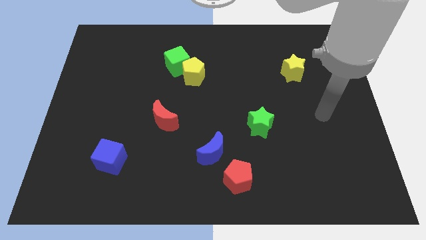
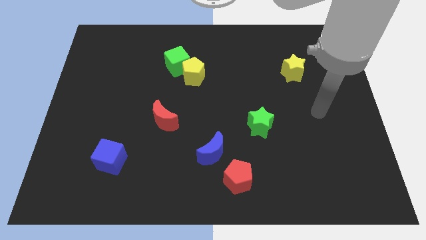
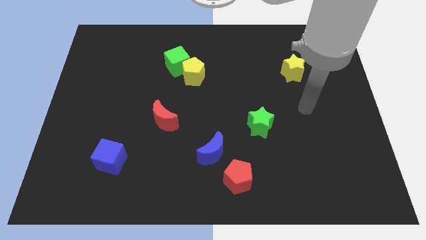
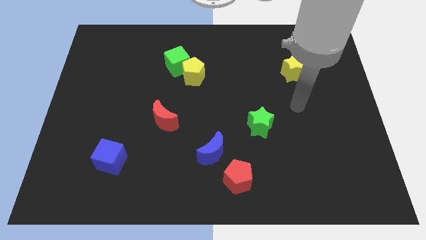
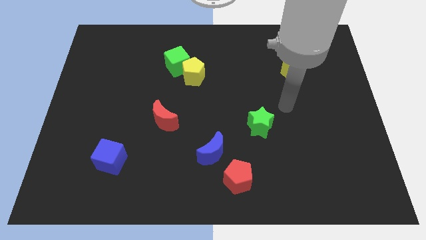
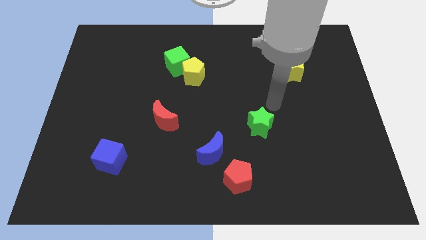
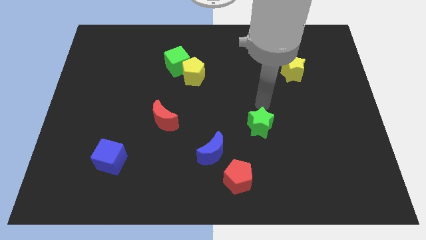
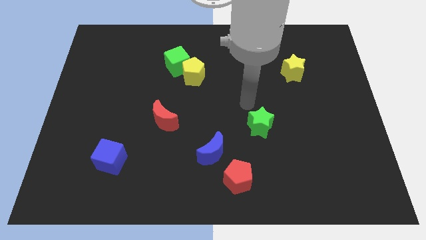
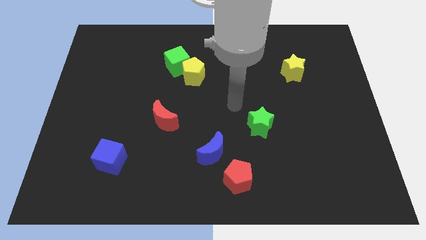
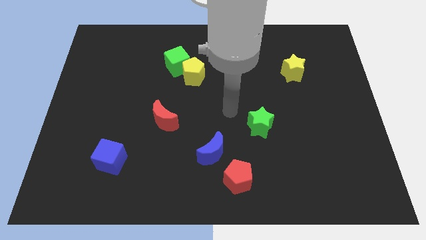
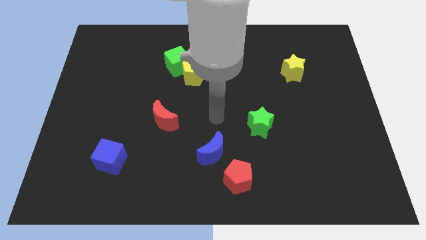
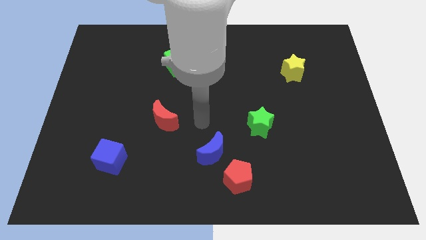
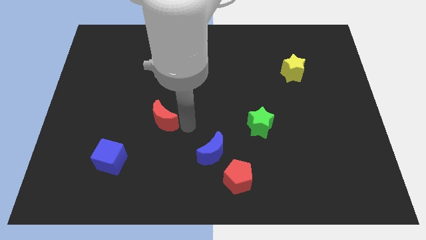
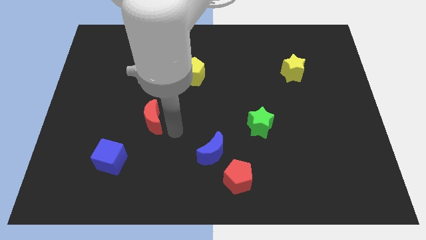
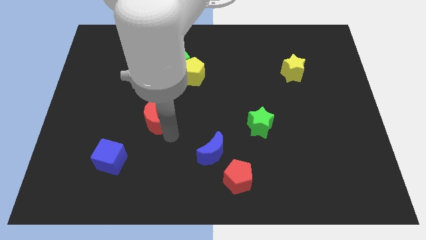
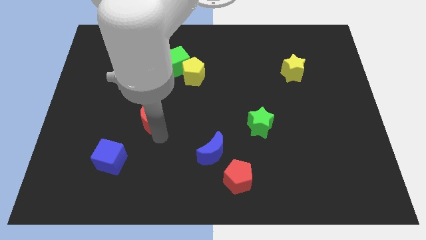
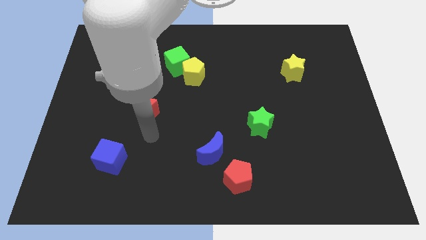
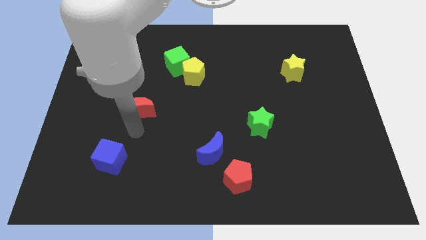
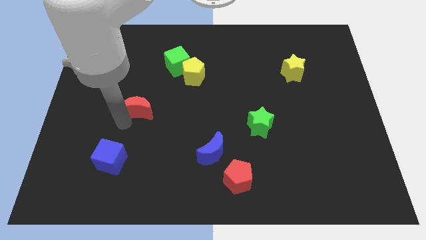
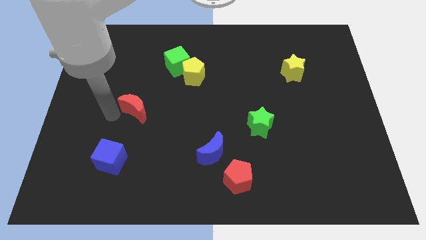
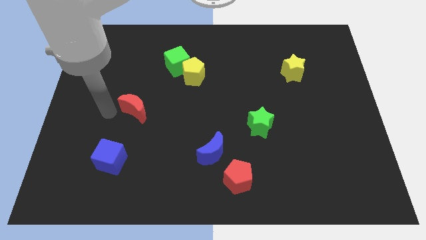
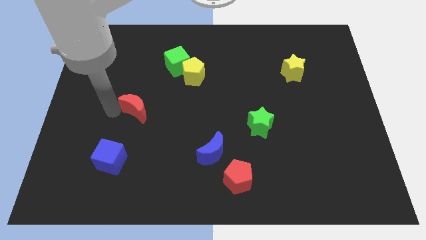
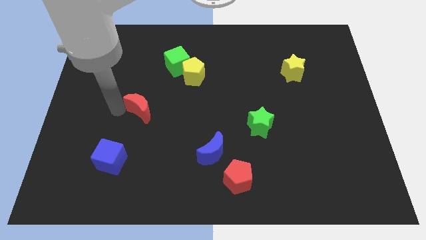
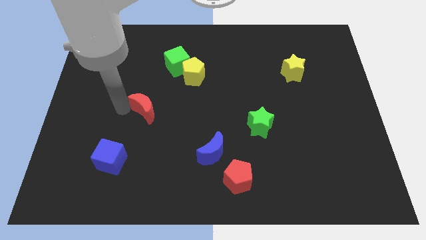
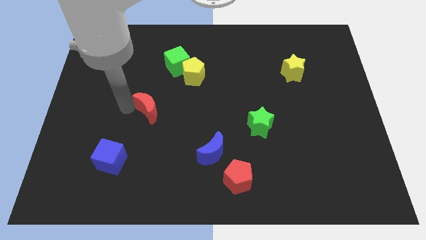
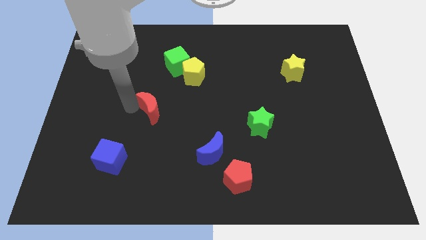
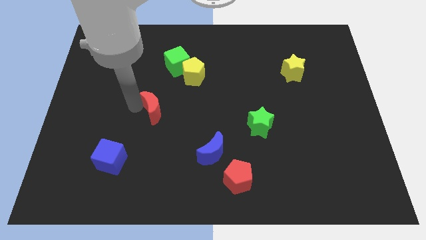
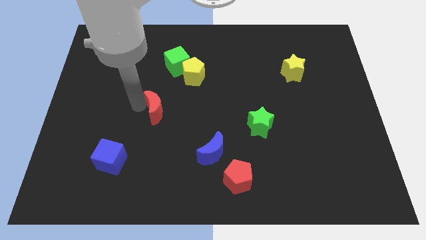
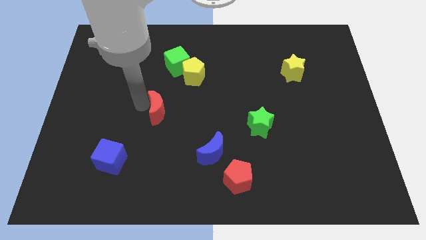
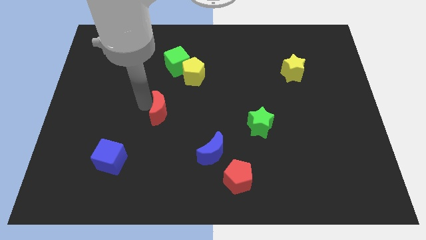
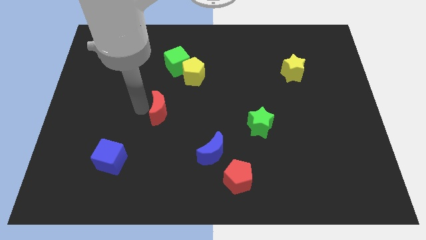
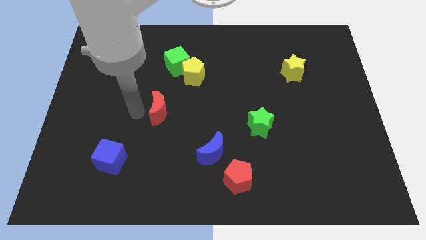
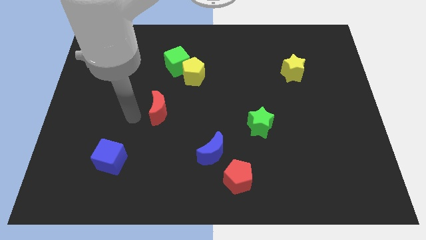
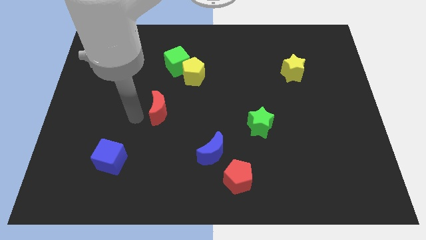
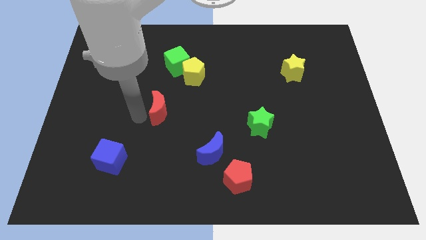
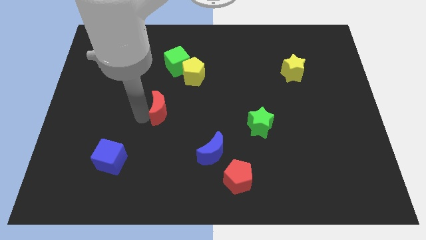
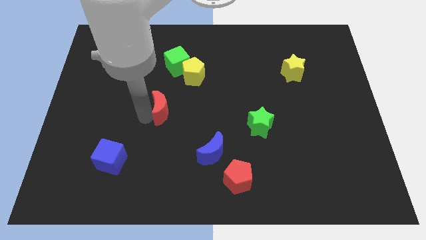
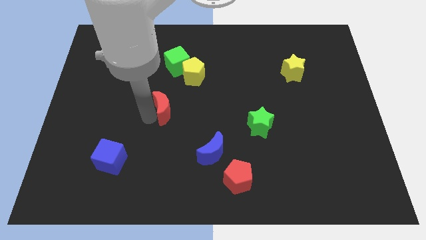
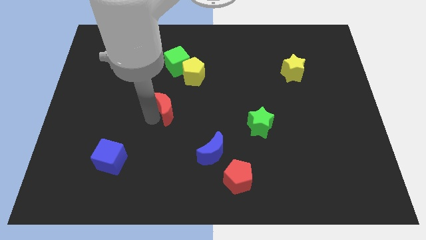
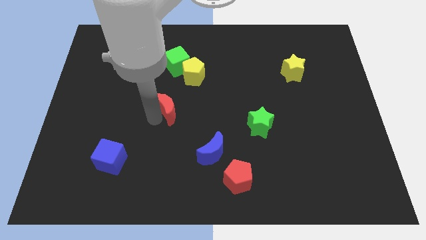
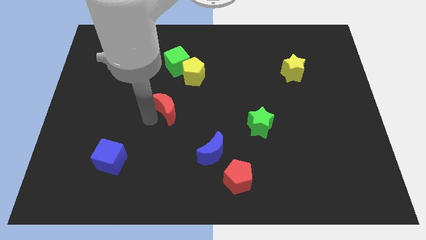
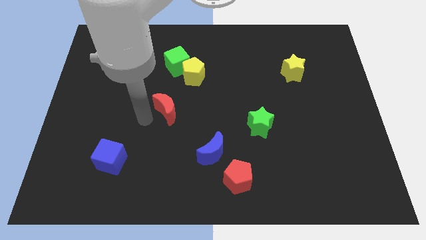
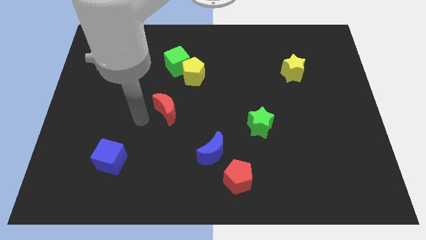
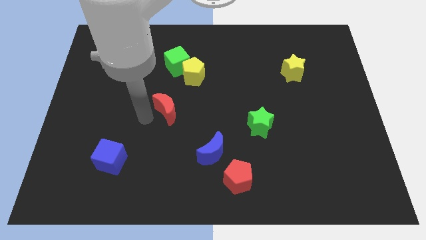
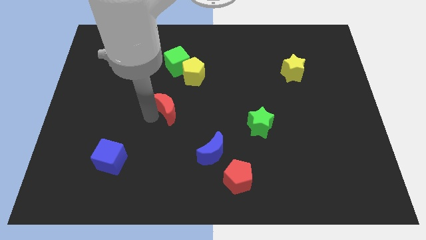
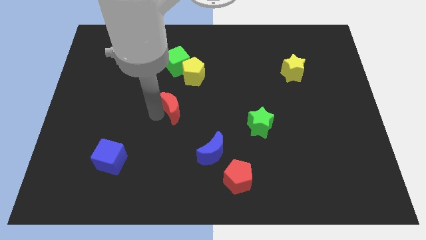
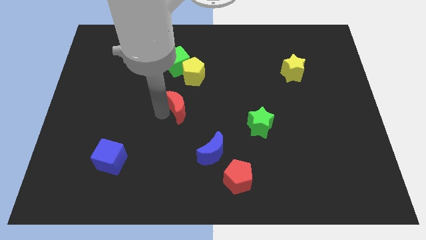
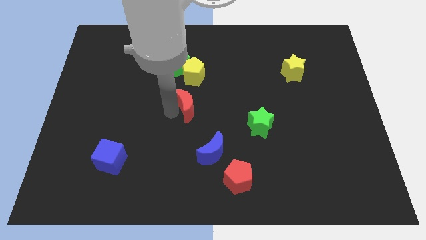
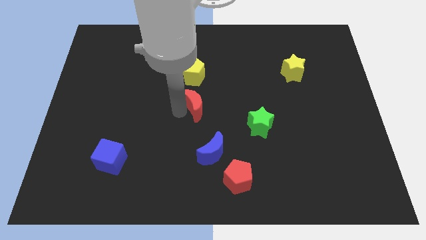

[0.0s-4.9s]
slightly slide the red moon upwards and then to the right

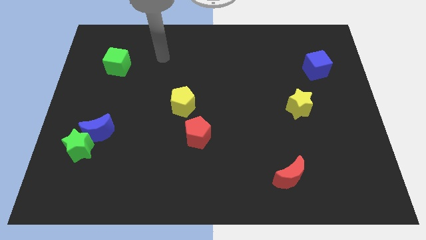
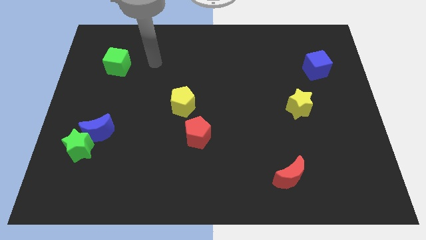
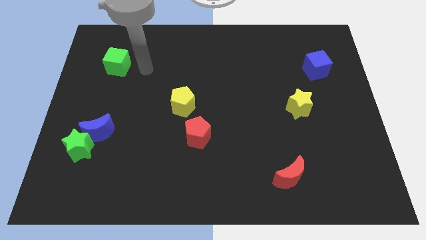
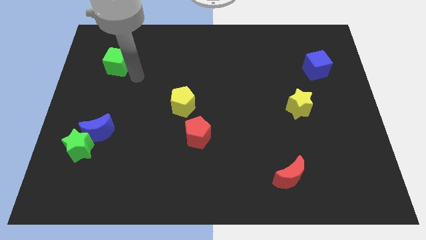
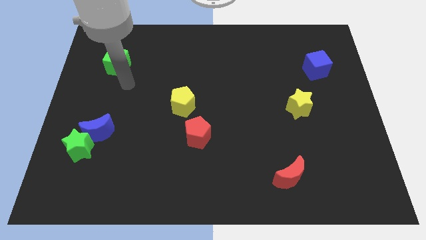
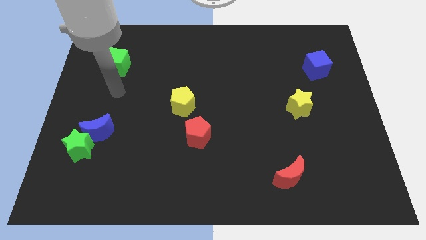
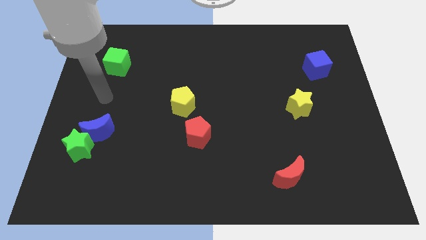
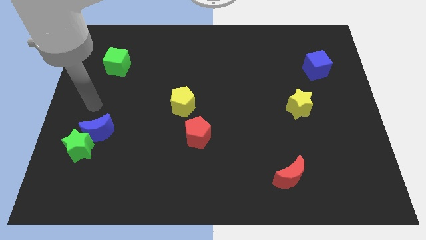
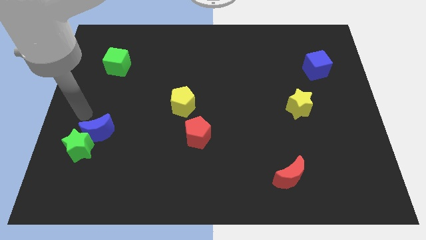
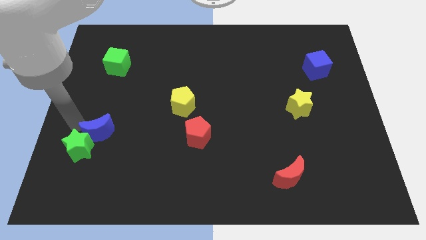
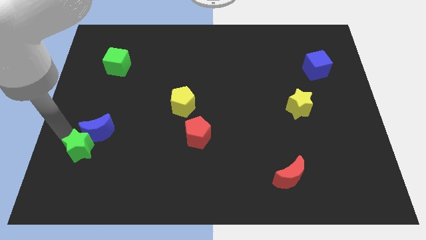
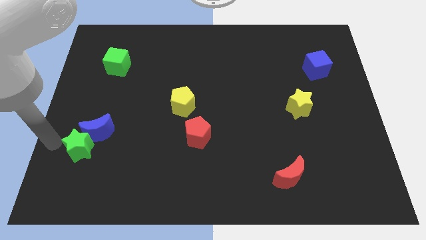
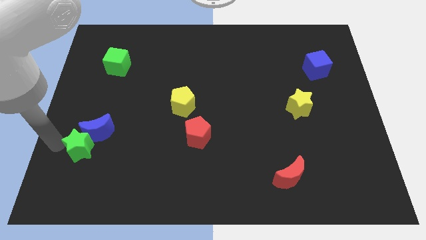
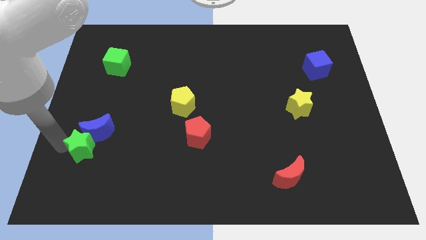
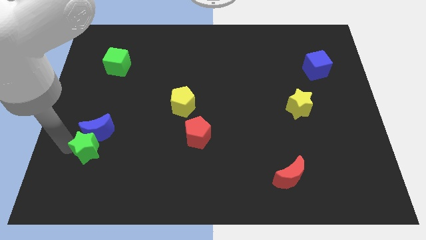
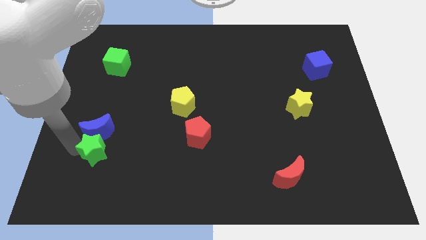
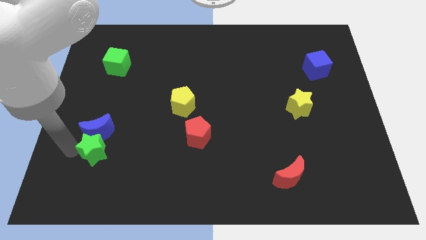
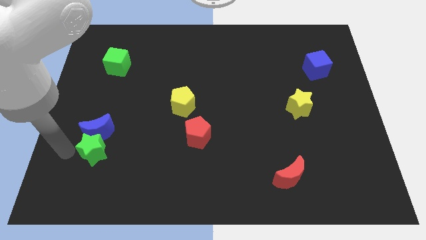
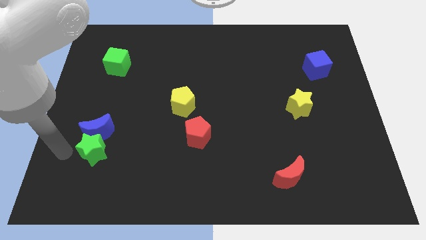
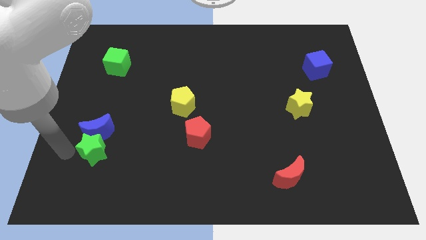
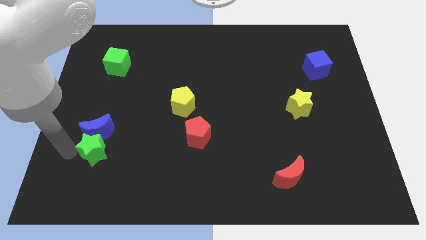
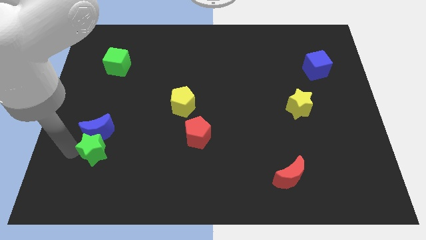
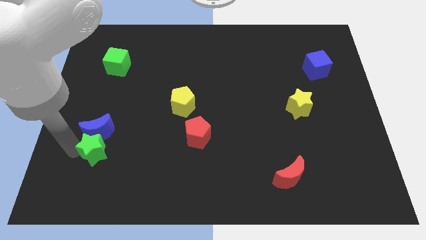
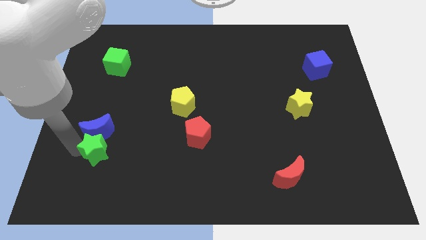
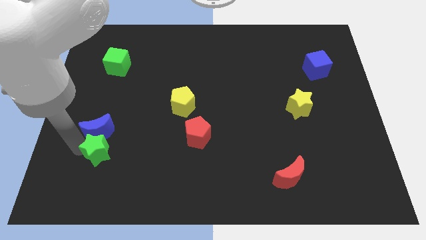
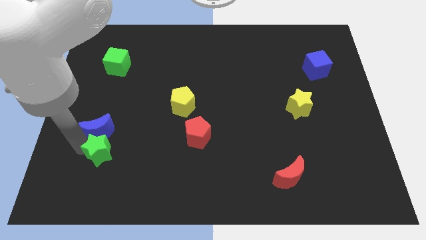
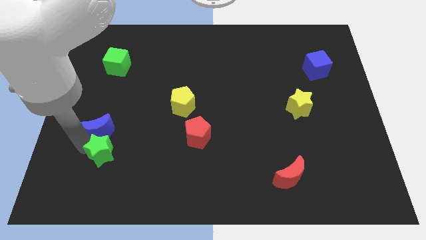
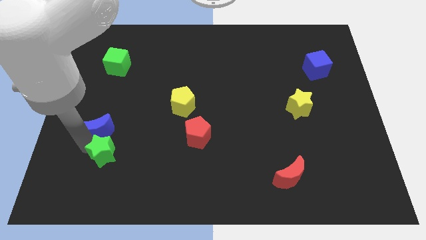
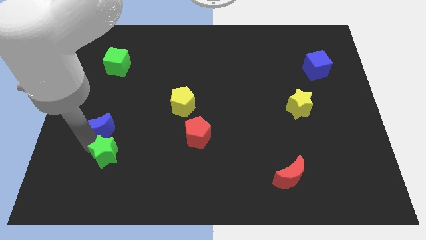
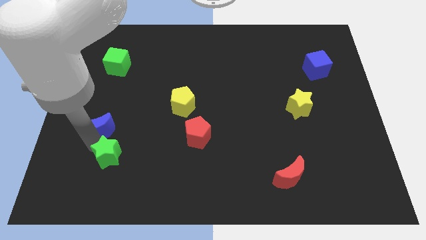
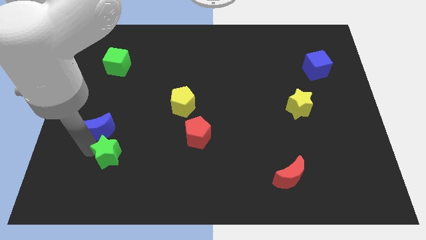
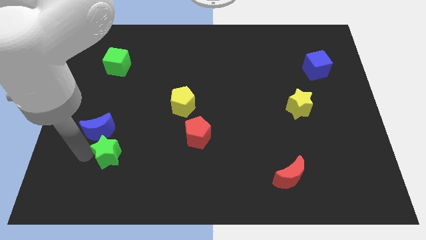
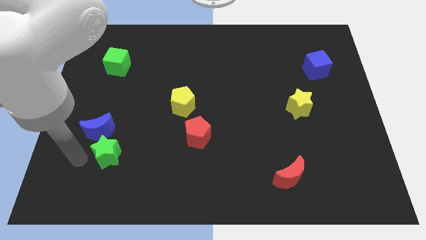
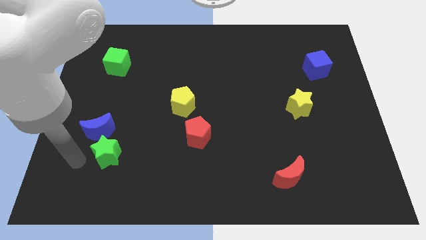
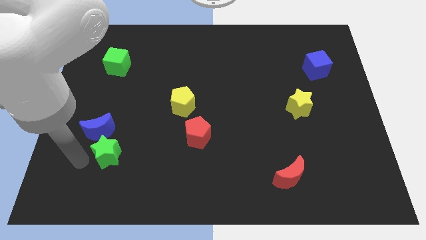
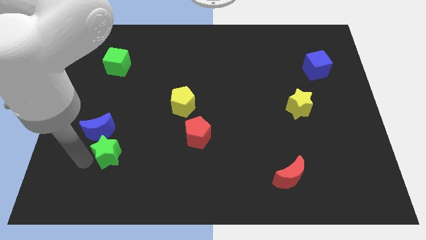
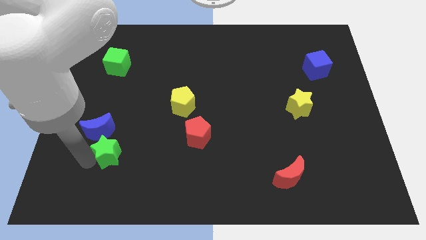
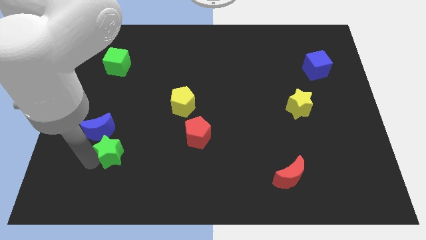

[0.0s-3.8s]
move the green star a bit to the right
